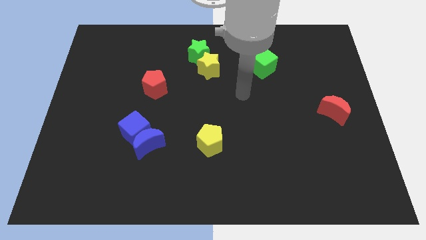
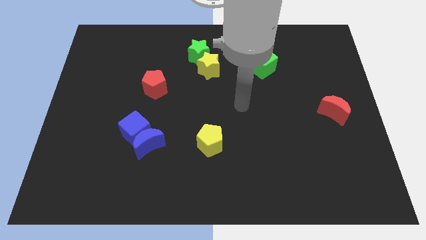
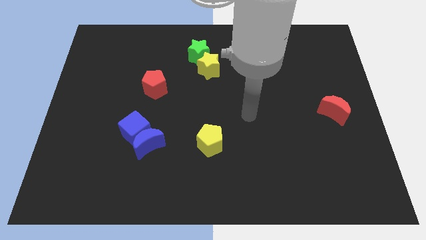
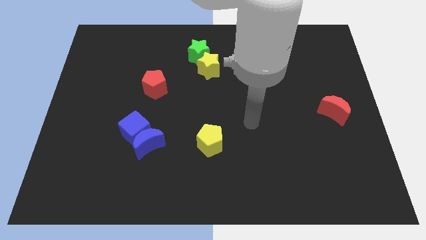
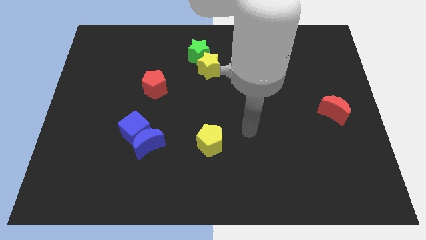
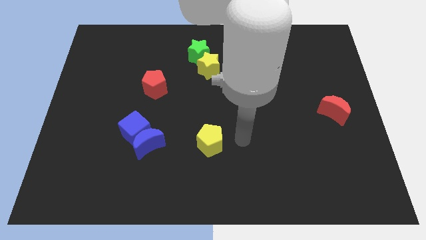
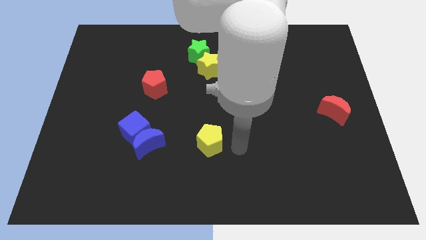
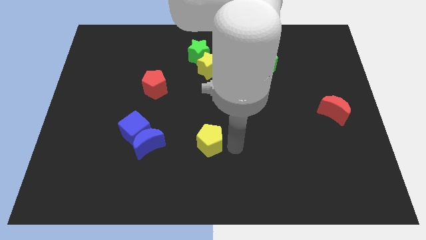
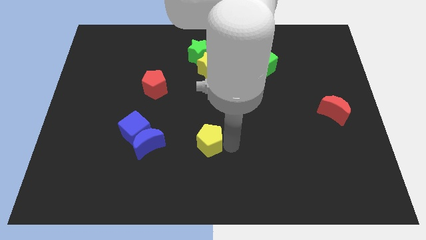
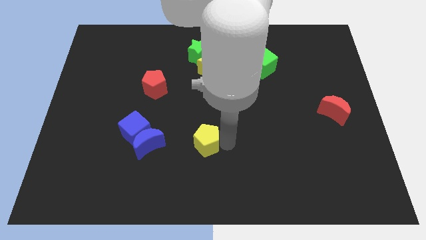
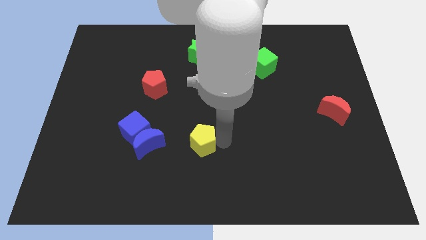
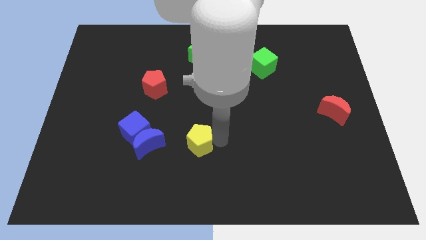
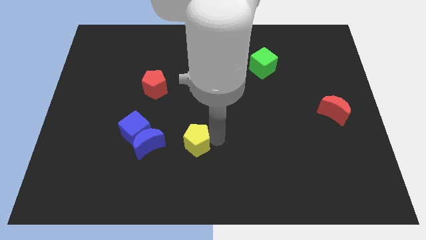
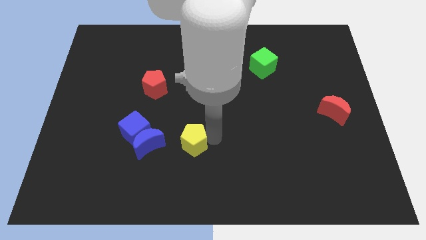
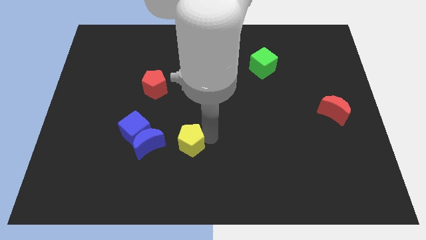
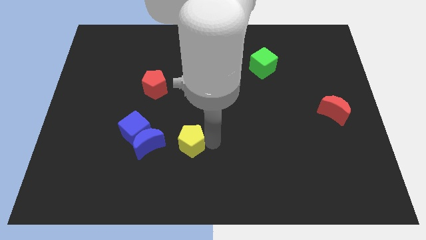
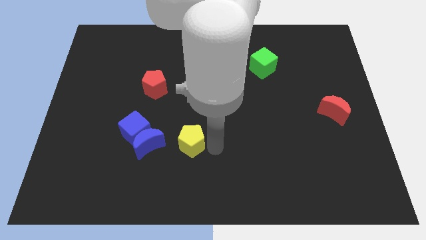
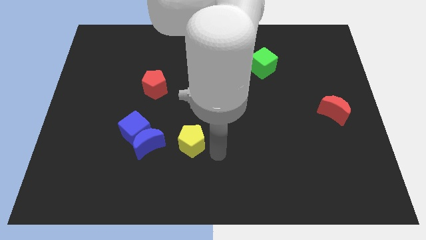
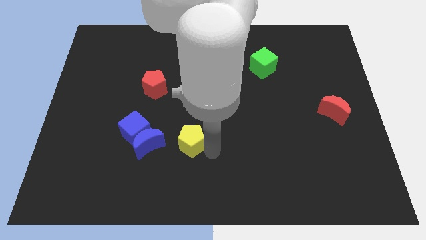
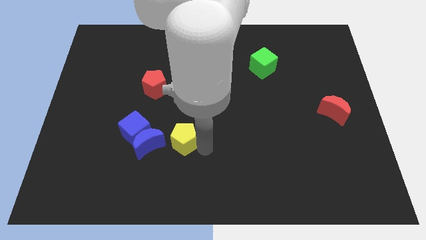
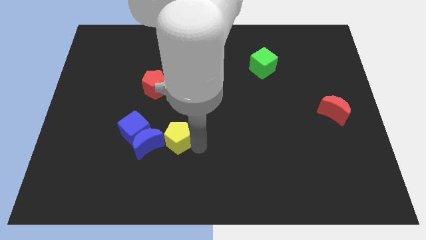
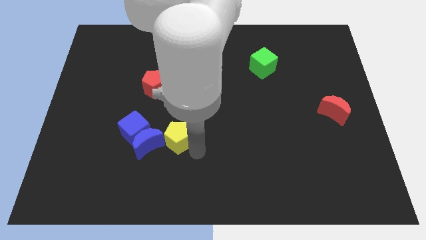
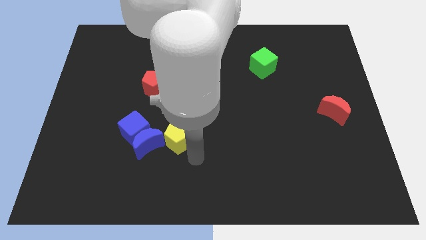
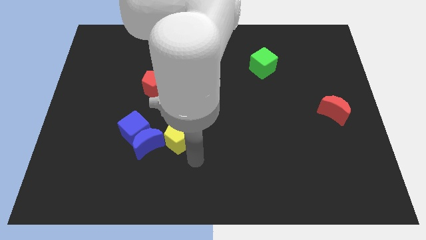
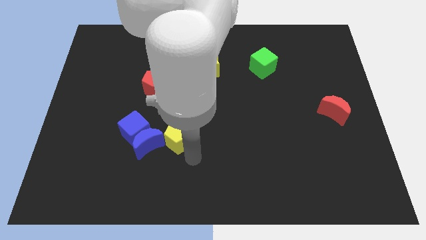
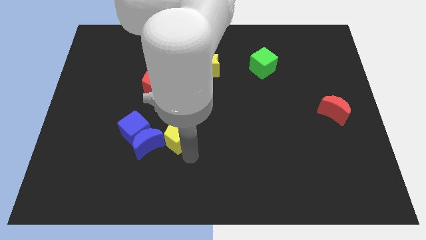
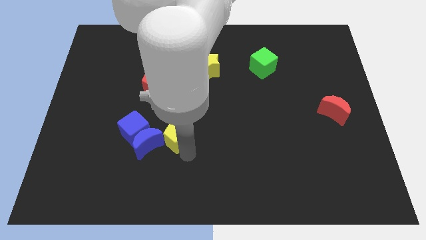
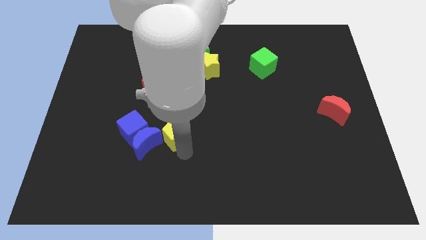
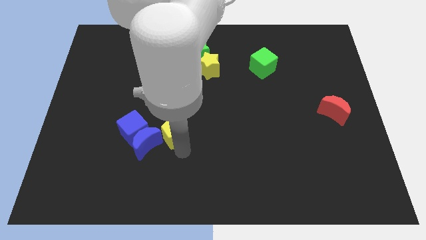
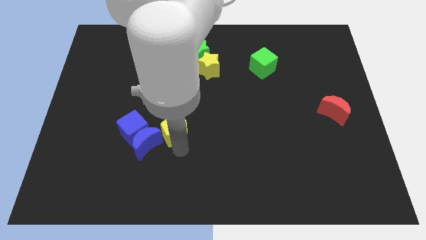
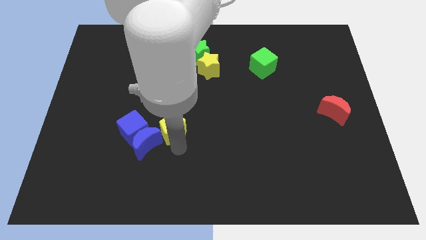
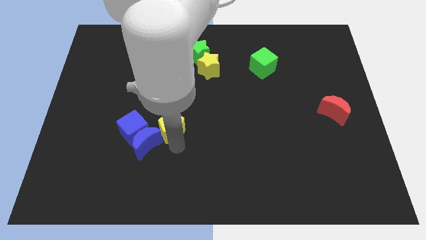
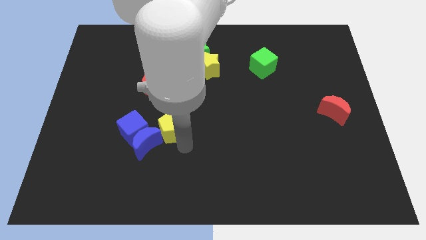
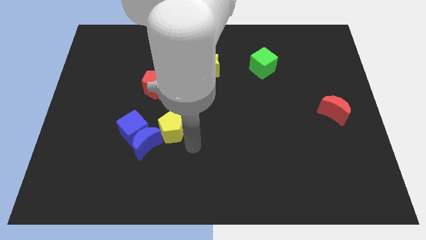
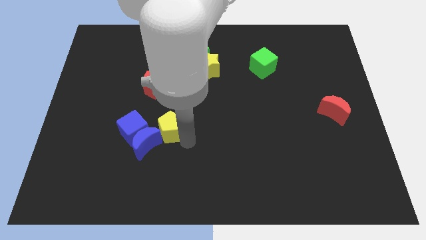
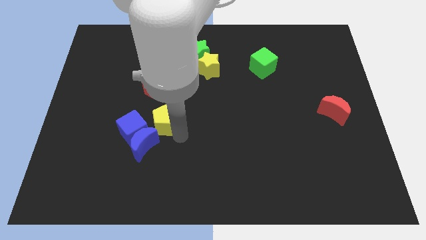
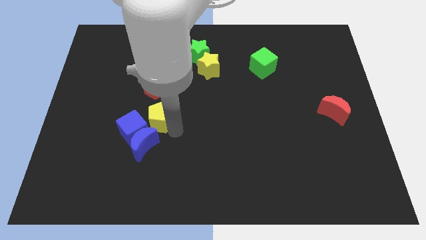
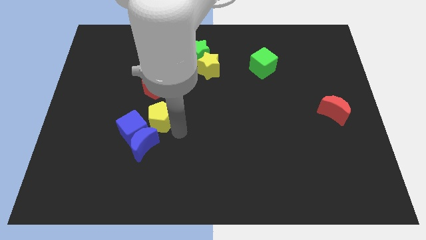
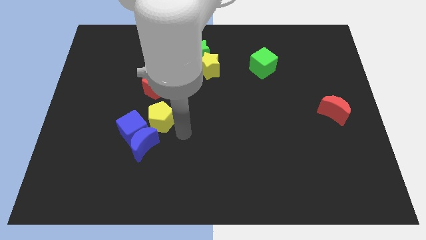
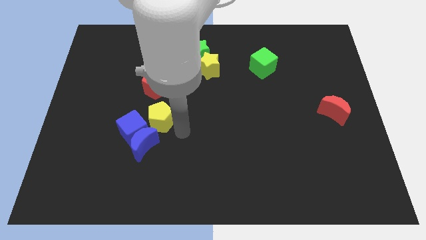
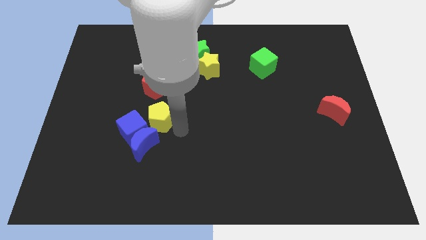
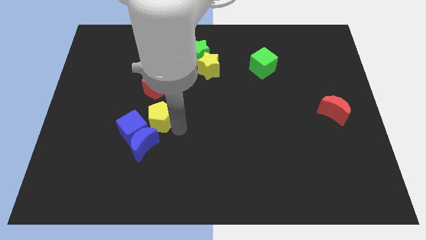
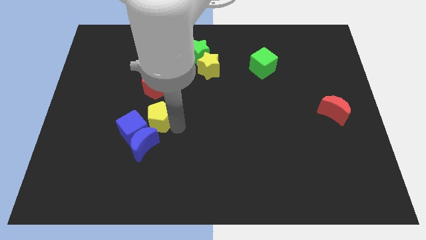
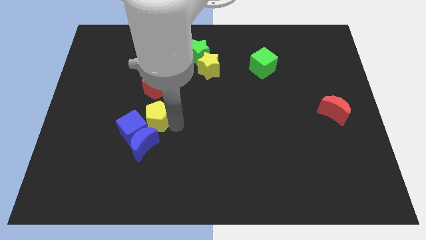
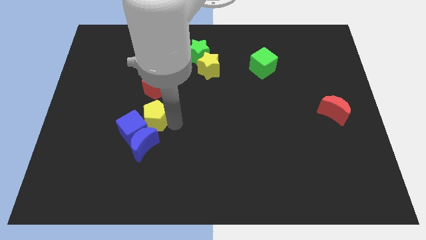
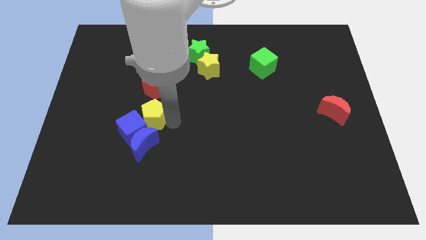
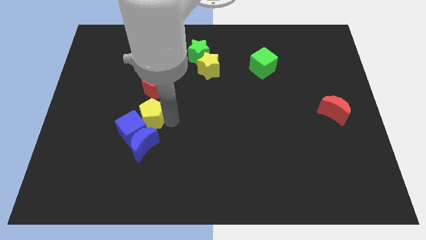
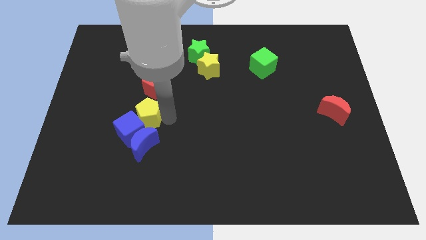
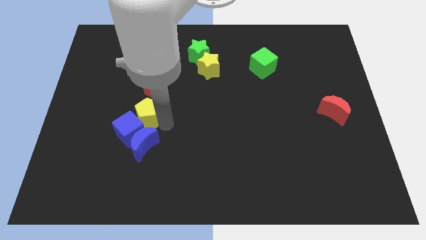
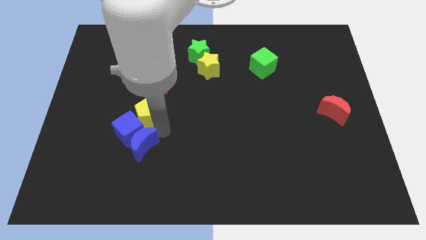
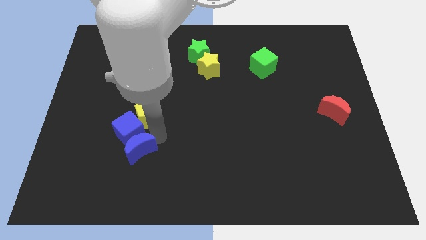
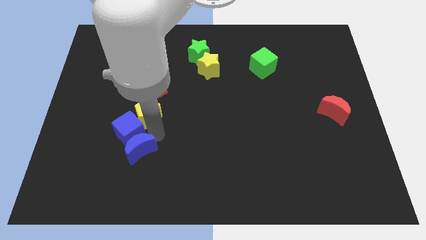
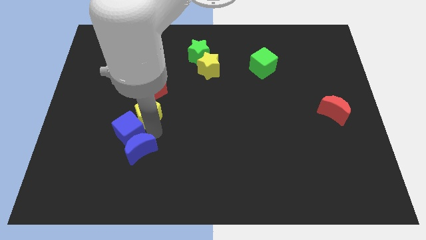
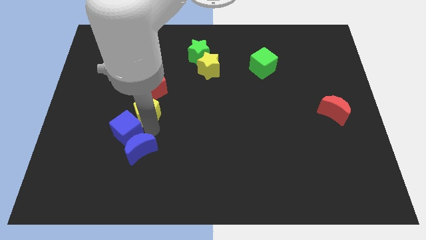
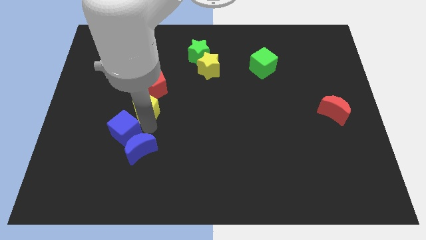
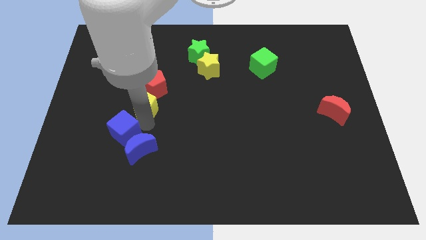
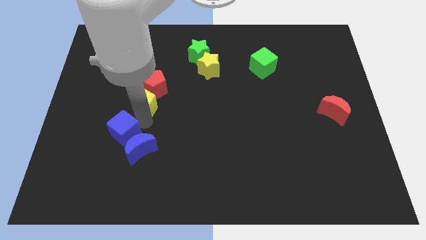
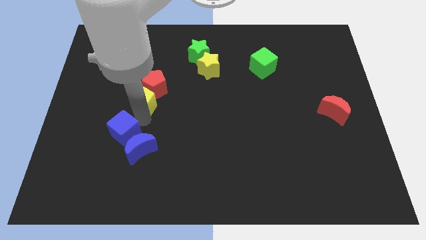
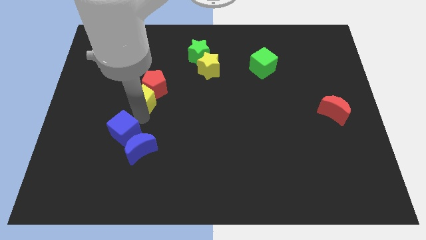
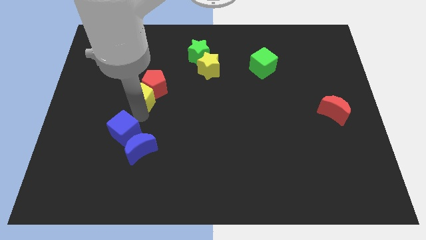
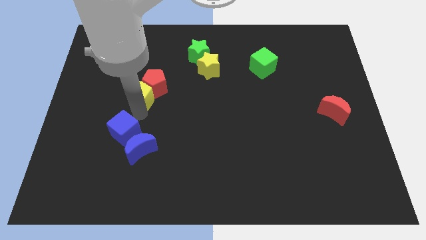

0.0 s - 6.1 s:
push the yellow pentagon upwards and then left

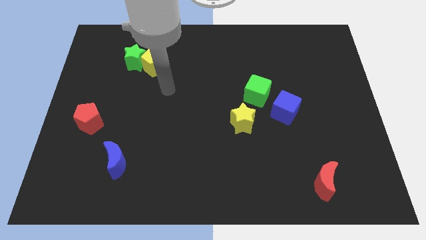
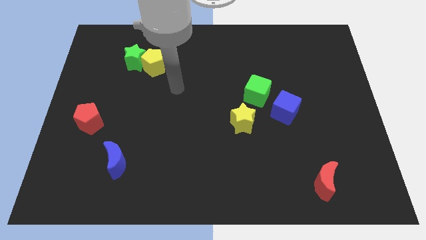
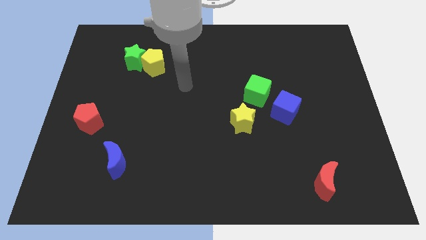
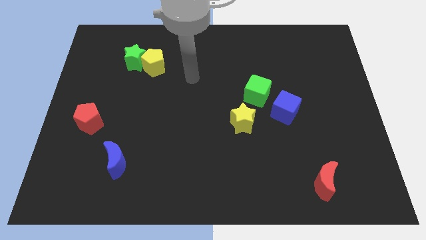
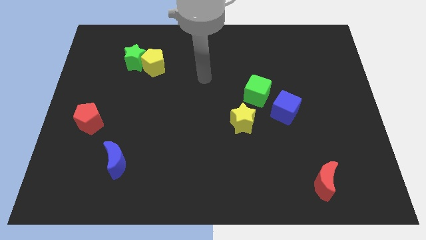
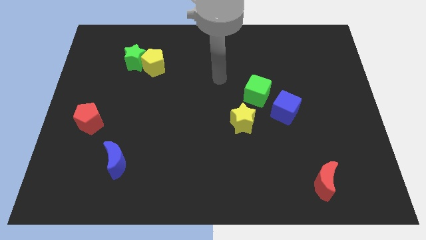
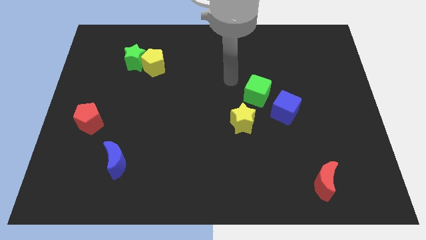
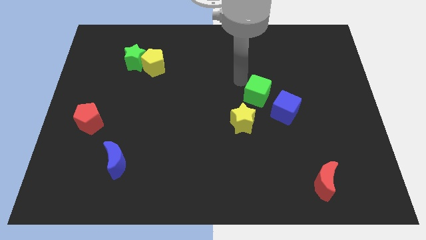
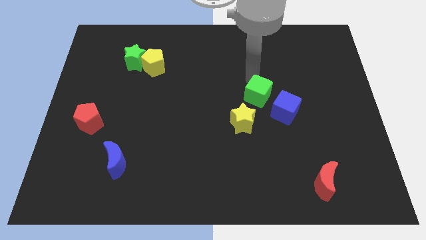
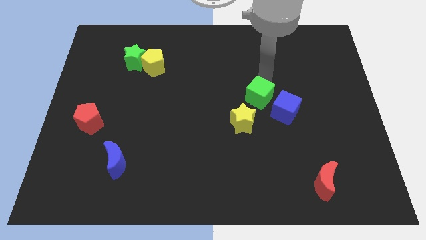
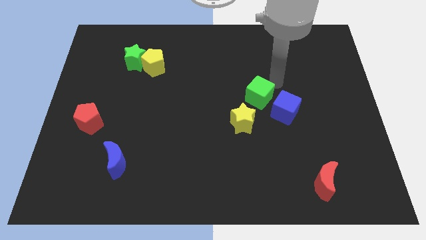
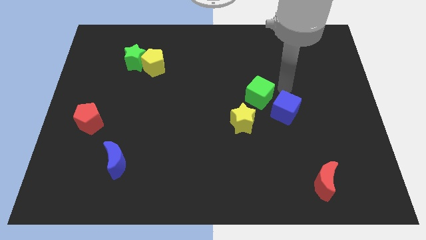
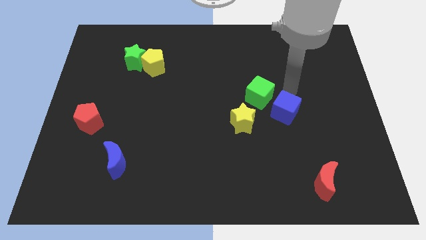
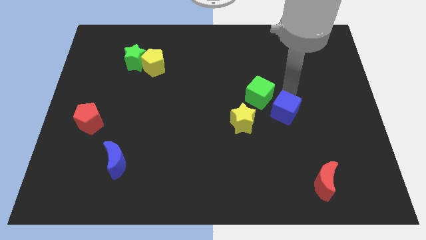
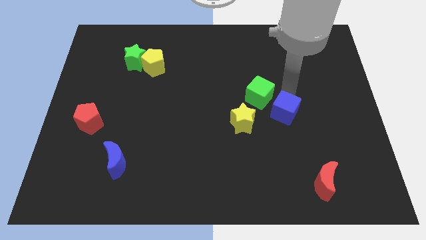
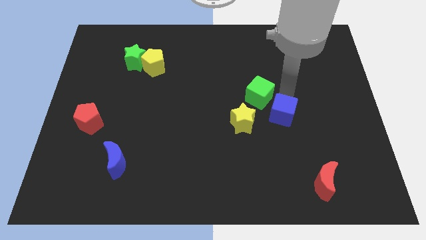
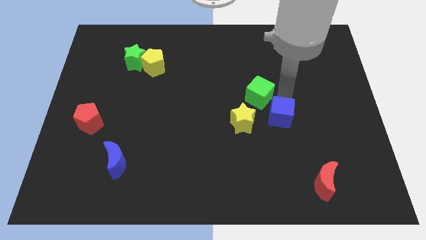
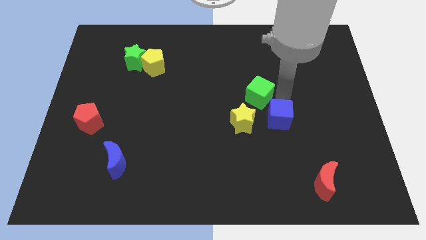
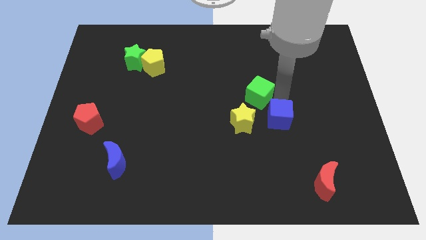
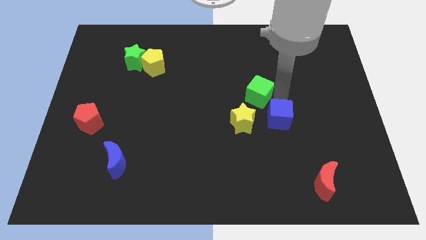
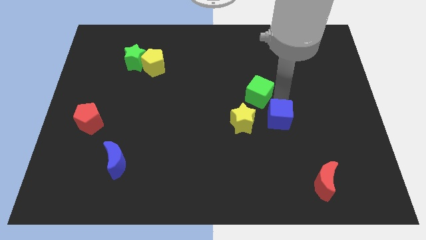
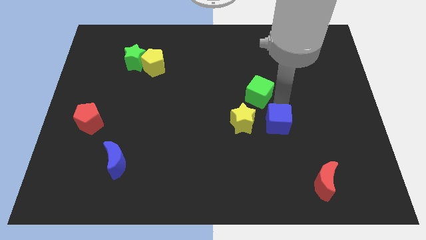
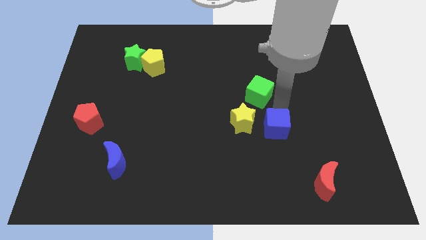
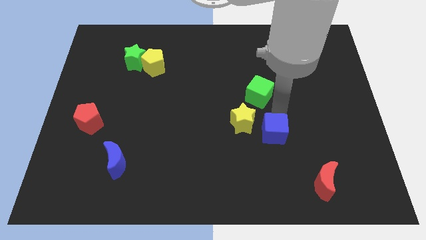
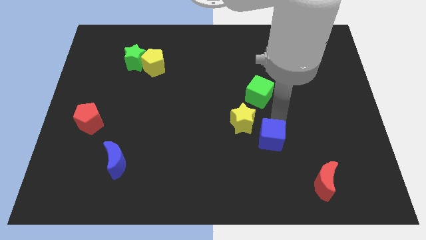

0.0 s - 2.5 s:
move the blue cube slightly diagonally downwards and left
